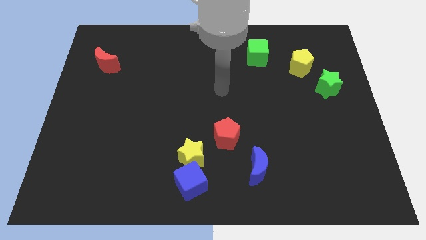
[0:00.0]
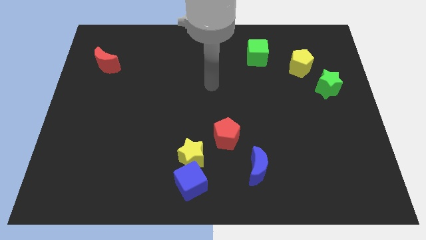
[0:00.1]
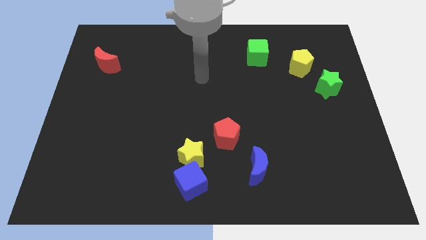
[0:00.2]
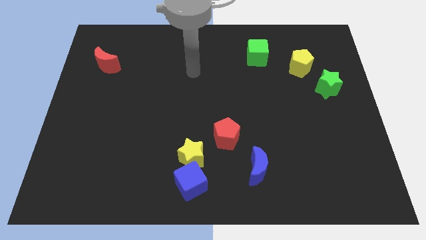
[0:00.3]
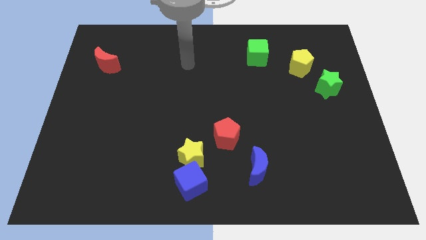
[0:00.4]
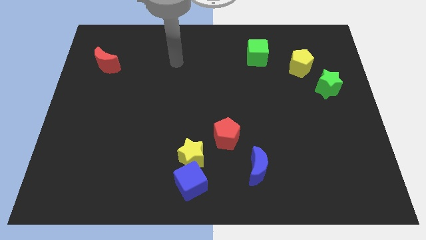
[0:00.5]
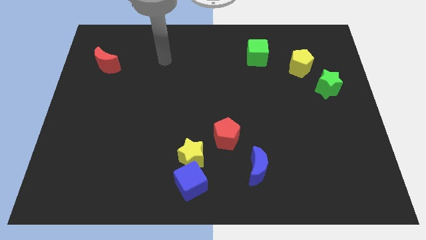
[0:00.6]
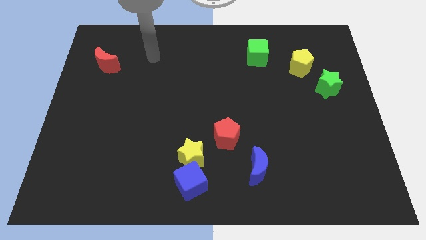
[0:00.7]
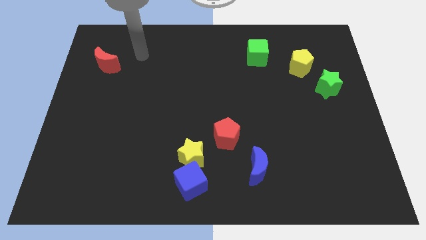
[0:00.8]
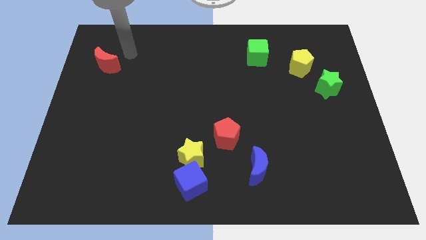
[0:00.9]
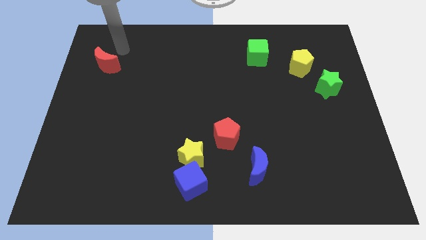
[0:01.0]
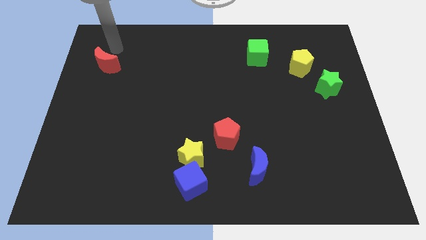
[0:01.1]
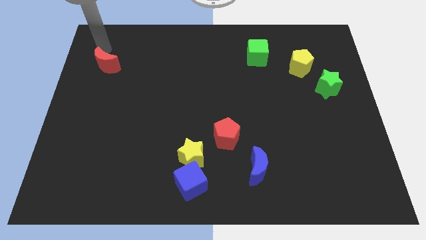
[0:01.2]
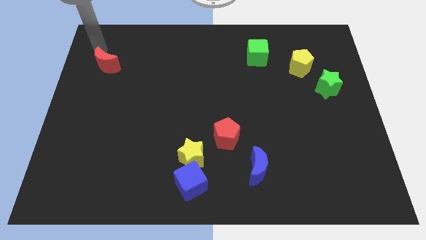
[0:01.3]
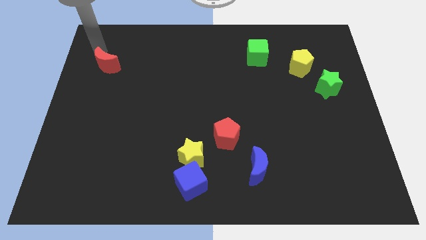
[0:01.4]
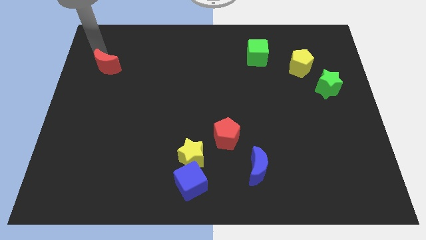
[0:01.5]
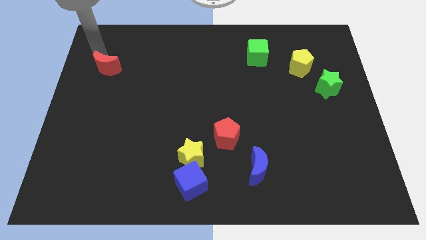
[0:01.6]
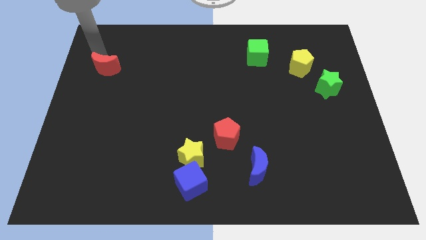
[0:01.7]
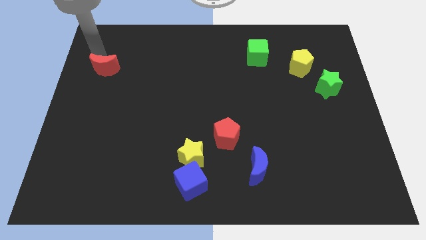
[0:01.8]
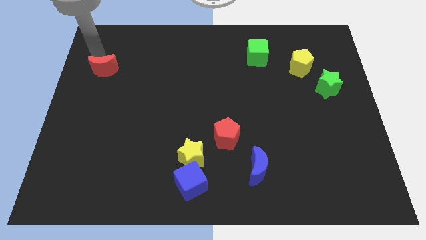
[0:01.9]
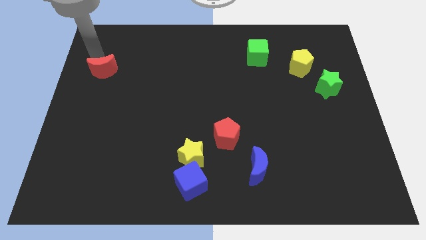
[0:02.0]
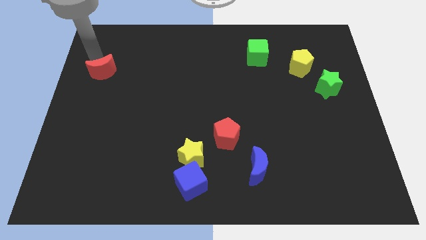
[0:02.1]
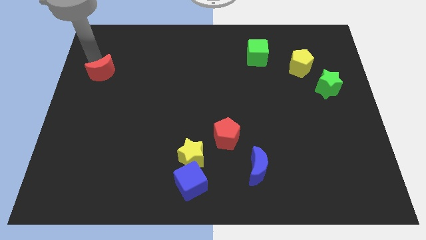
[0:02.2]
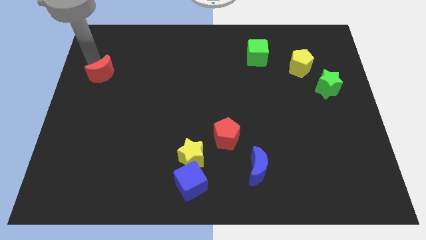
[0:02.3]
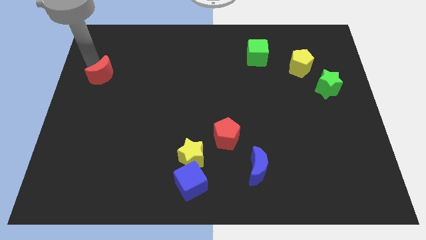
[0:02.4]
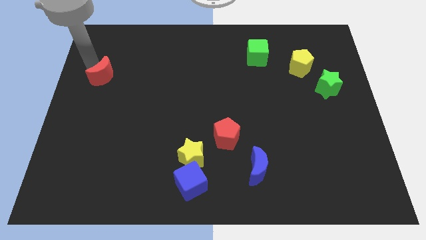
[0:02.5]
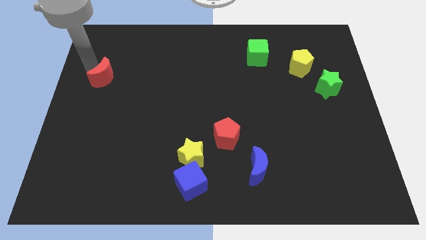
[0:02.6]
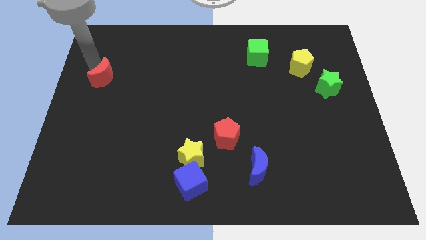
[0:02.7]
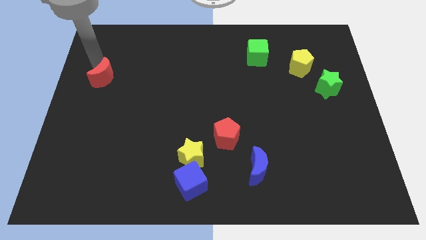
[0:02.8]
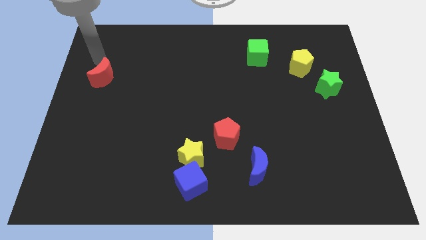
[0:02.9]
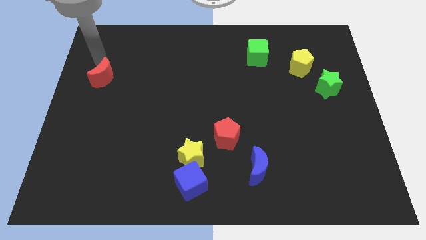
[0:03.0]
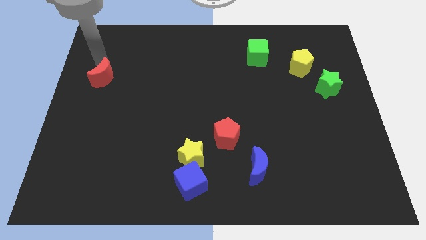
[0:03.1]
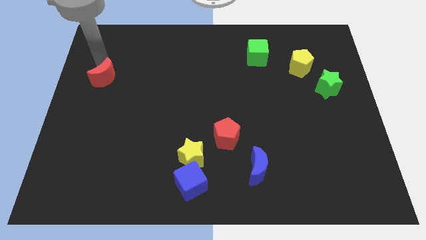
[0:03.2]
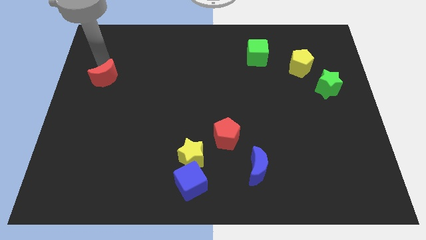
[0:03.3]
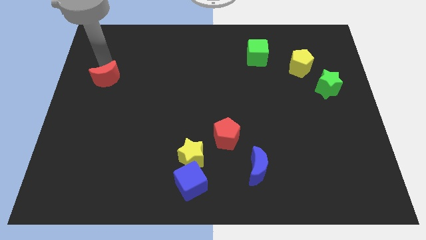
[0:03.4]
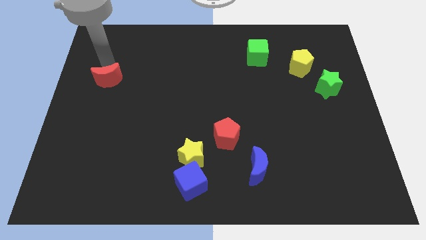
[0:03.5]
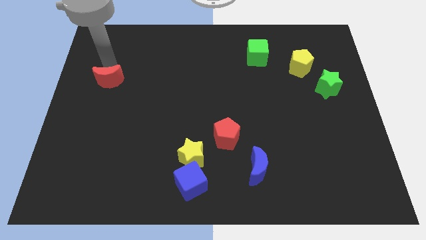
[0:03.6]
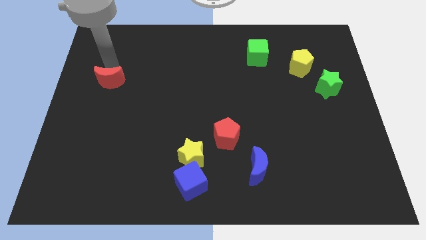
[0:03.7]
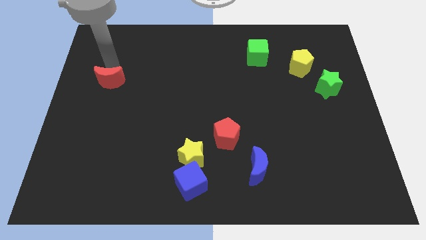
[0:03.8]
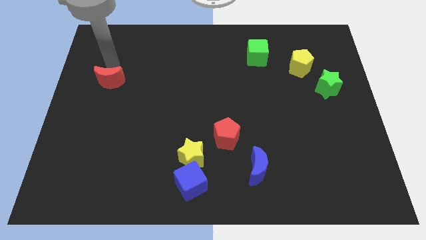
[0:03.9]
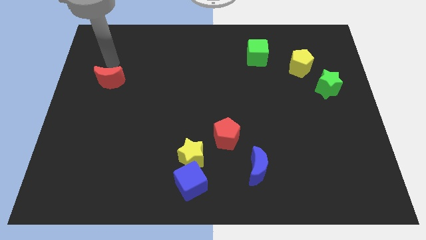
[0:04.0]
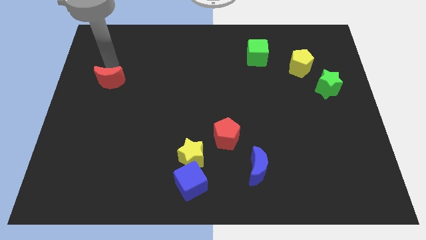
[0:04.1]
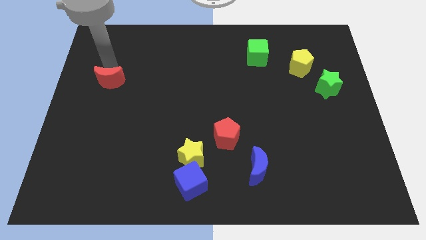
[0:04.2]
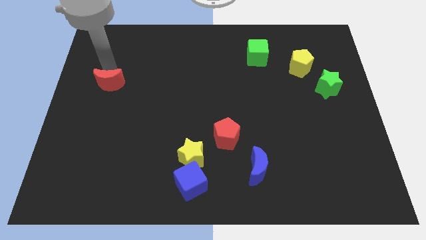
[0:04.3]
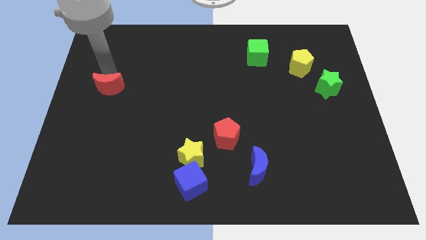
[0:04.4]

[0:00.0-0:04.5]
slightly move the red moon downwards

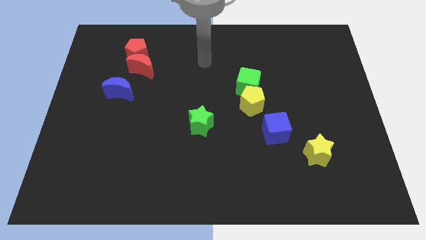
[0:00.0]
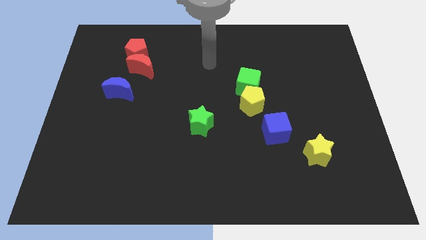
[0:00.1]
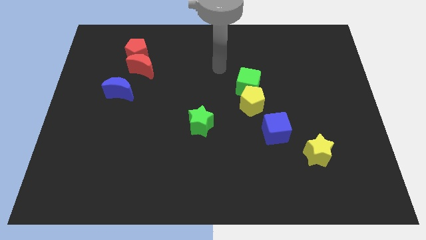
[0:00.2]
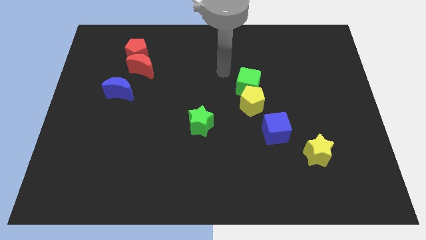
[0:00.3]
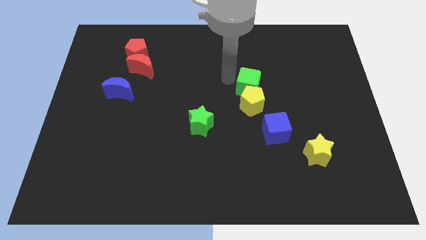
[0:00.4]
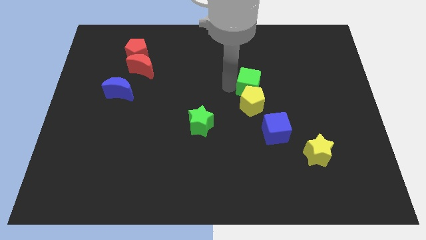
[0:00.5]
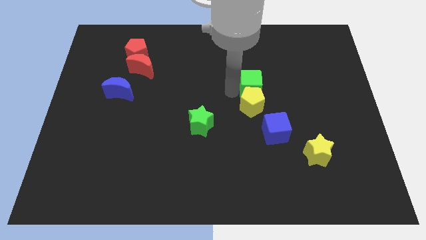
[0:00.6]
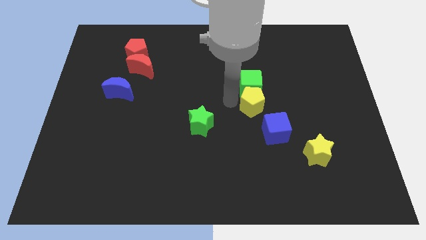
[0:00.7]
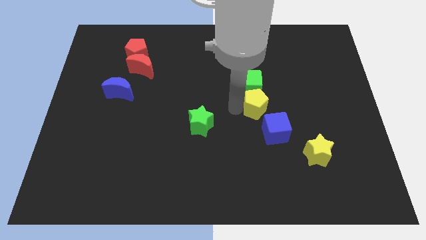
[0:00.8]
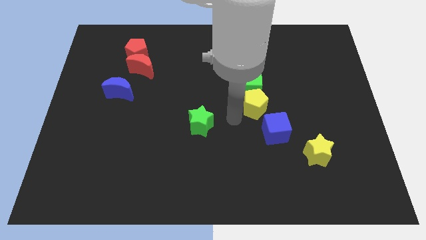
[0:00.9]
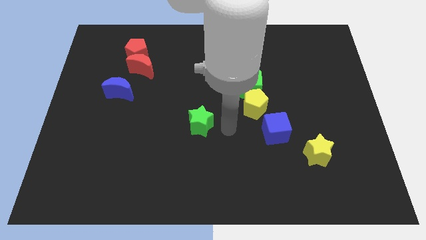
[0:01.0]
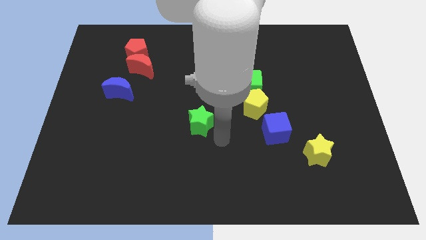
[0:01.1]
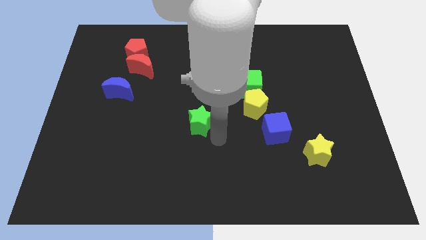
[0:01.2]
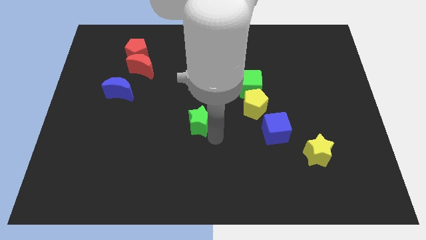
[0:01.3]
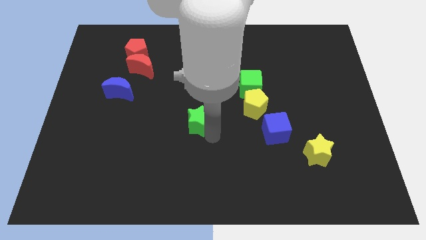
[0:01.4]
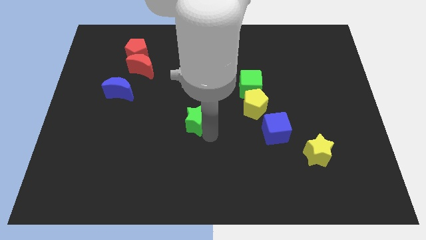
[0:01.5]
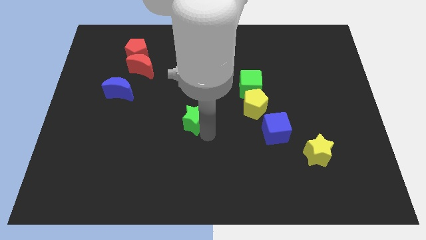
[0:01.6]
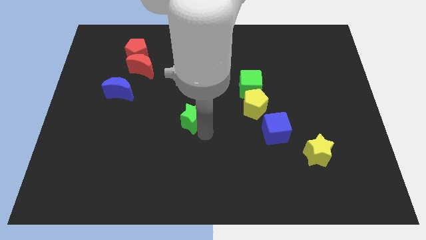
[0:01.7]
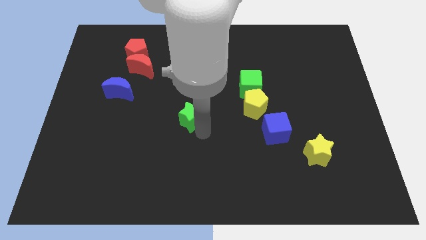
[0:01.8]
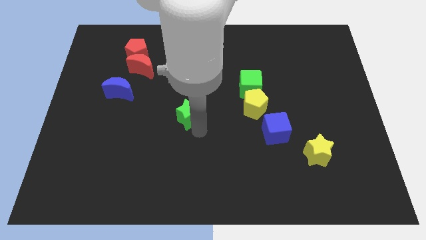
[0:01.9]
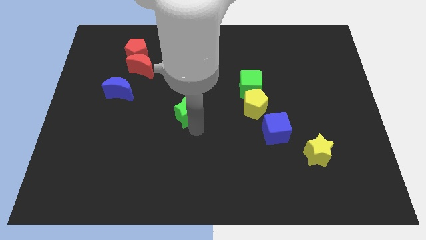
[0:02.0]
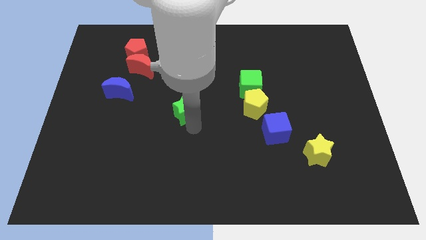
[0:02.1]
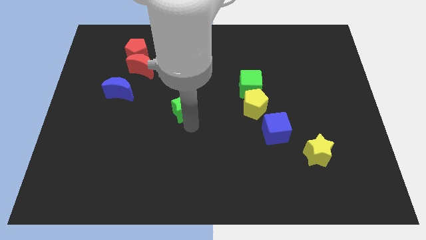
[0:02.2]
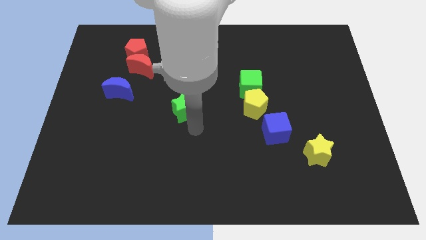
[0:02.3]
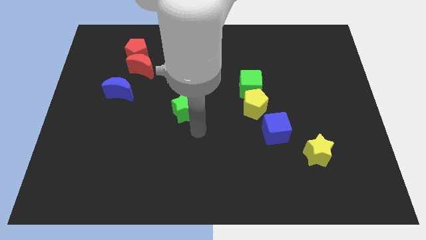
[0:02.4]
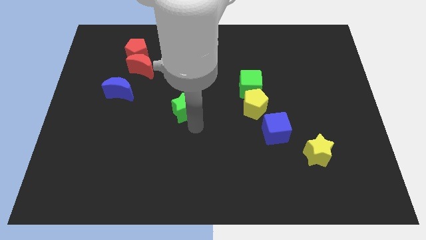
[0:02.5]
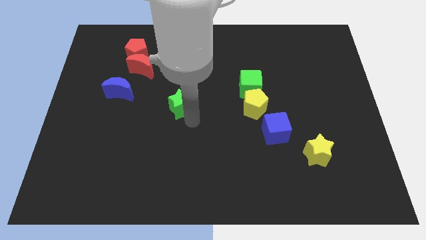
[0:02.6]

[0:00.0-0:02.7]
slightly move the green star diagonally up and left

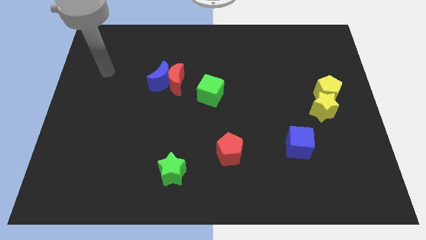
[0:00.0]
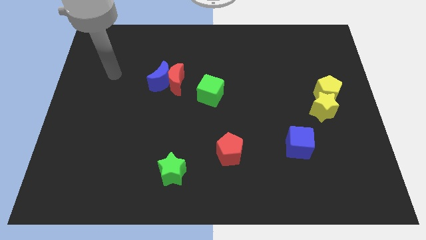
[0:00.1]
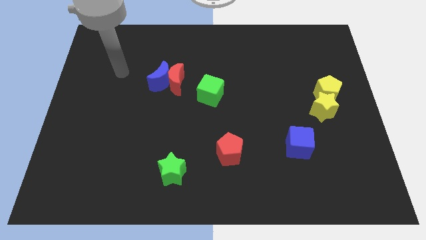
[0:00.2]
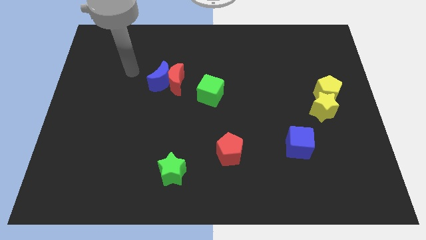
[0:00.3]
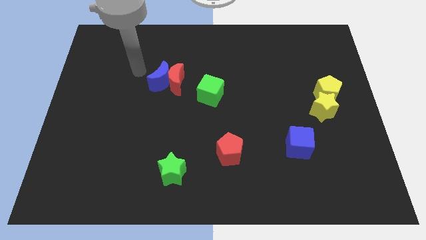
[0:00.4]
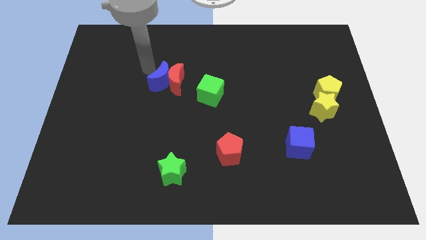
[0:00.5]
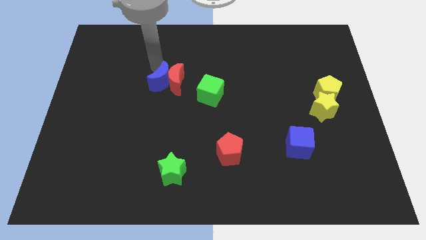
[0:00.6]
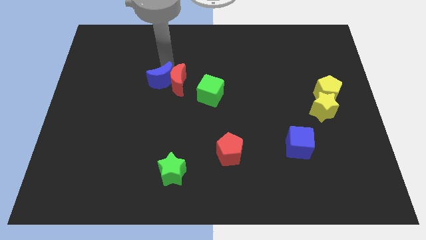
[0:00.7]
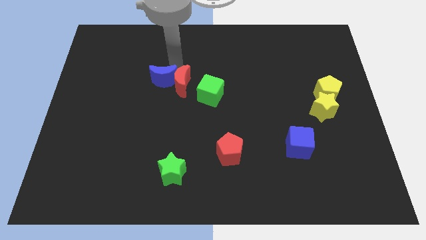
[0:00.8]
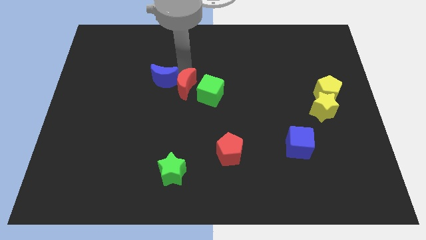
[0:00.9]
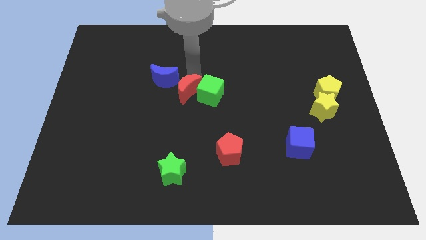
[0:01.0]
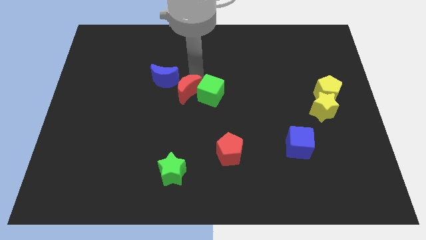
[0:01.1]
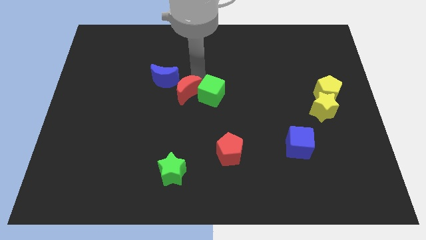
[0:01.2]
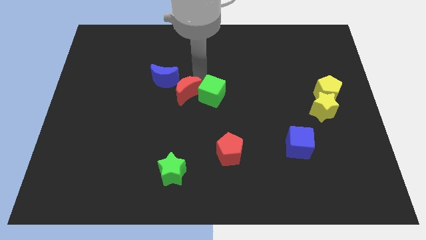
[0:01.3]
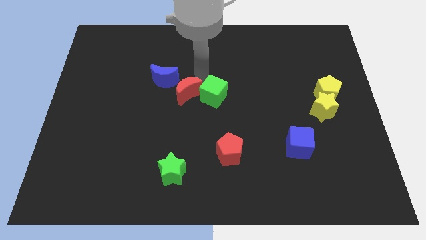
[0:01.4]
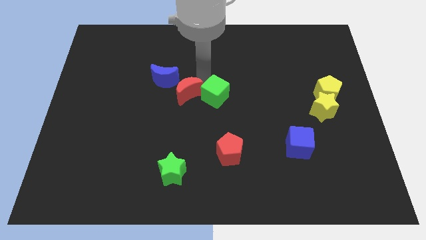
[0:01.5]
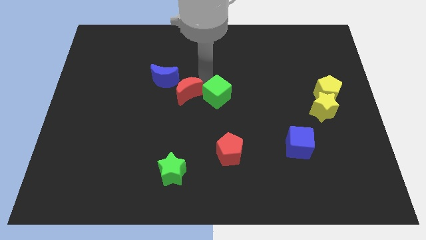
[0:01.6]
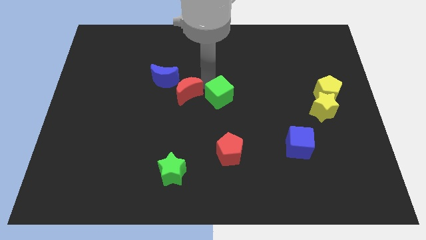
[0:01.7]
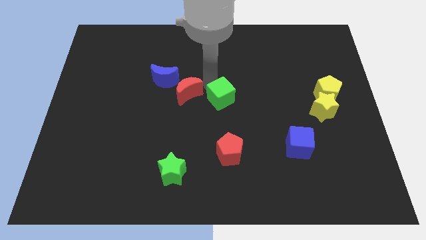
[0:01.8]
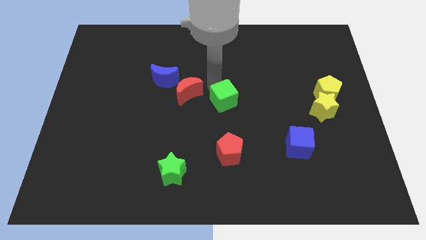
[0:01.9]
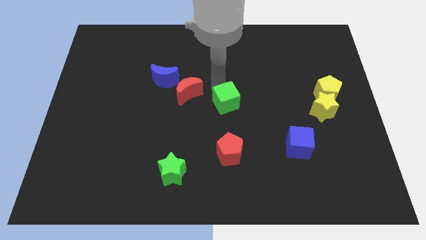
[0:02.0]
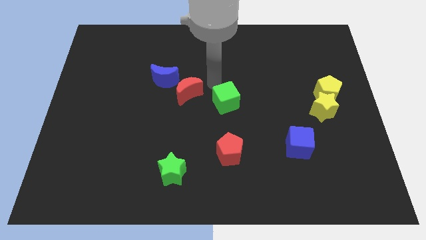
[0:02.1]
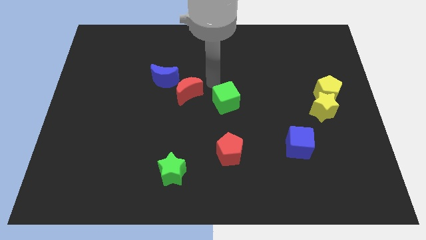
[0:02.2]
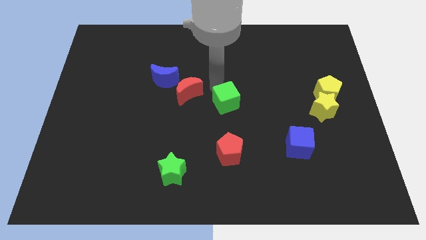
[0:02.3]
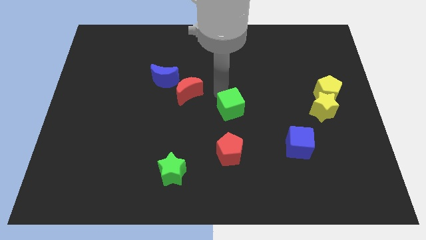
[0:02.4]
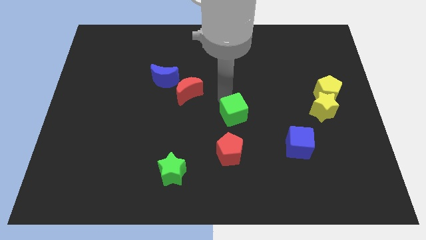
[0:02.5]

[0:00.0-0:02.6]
move the green cube somewhat down and to the right
